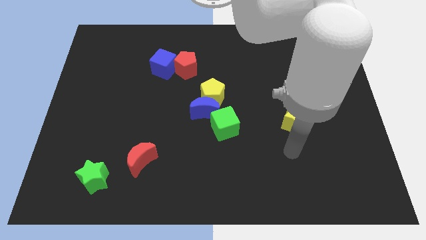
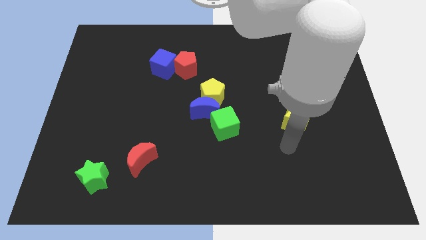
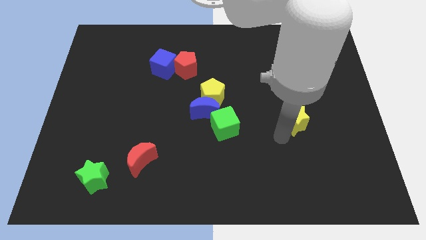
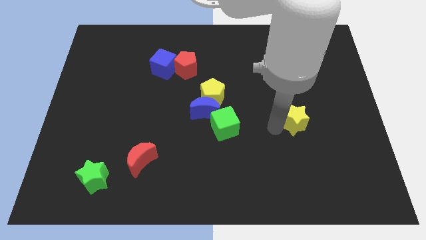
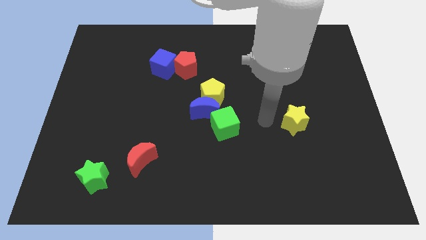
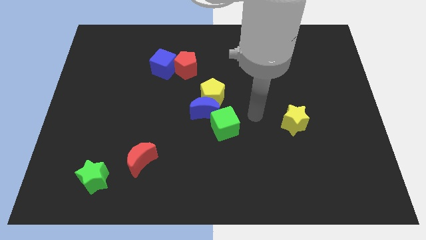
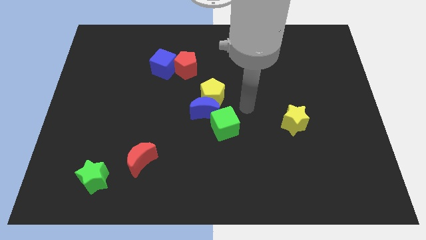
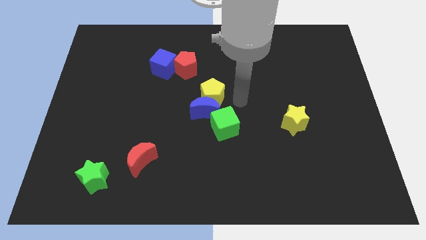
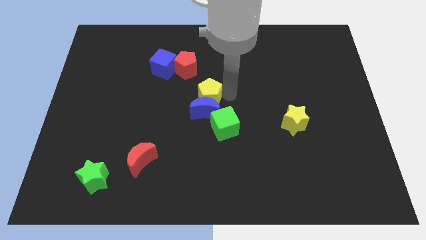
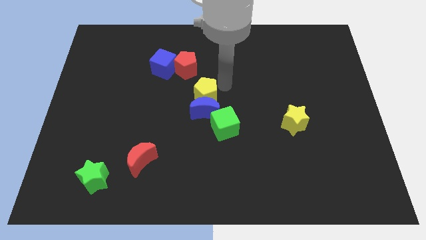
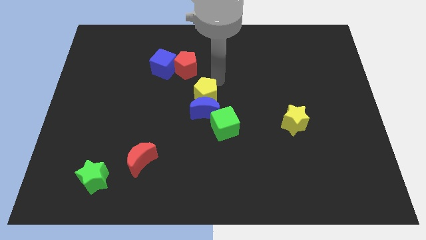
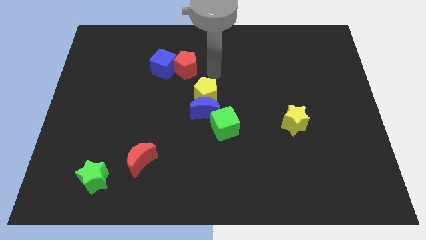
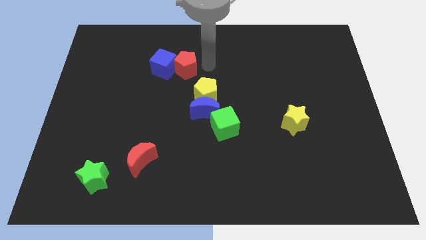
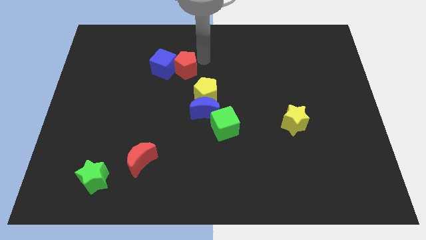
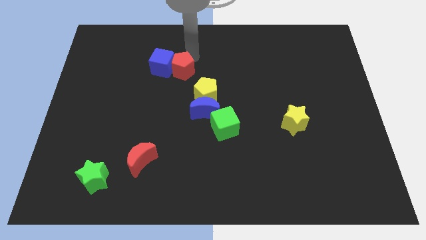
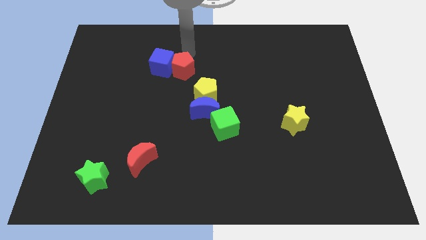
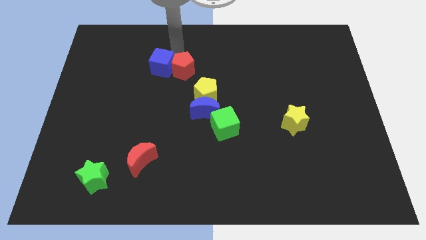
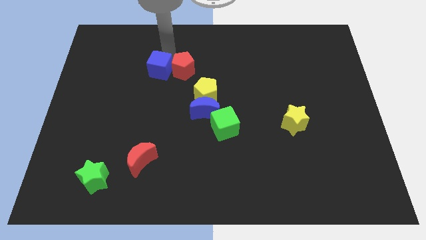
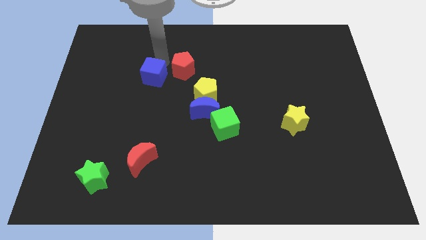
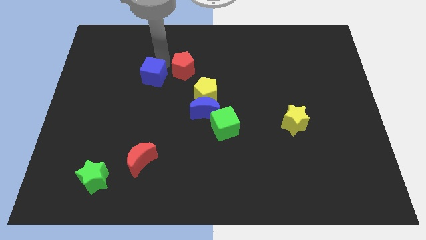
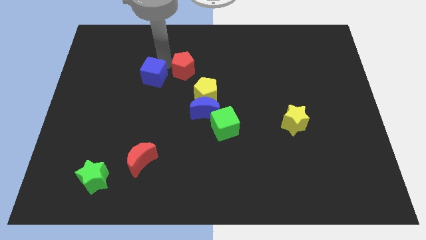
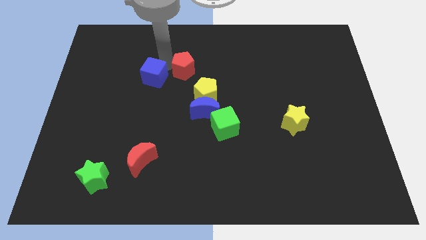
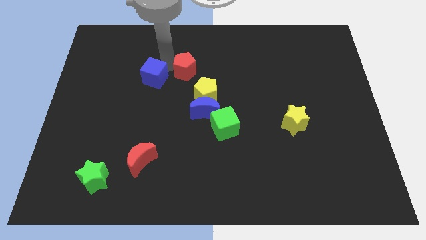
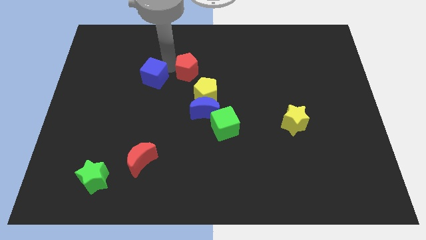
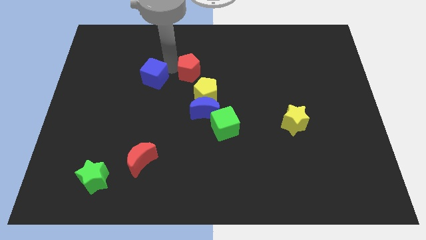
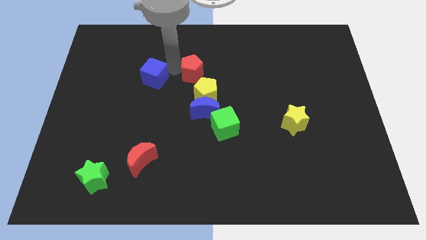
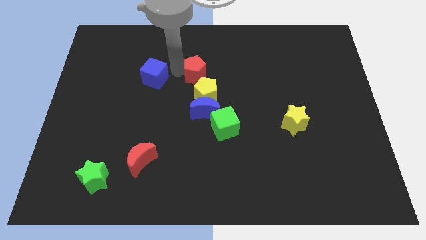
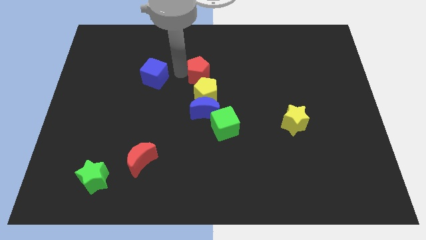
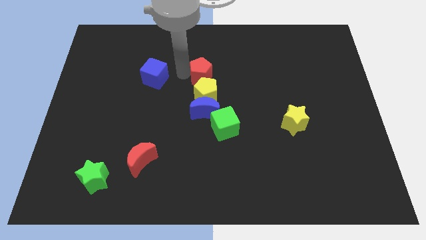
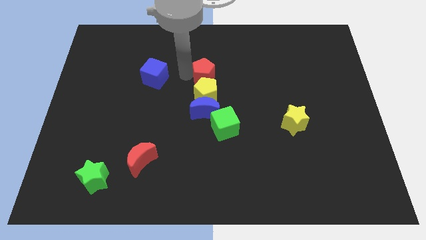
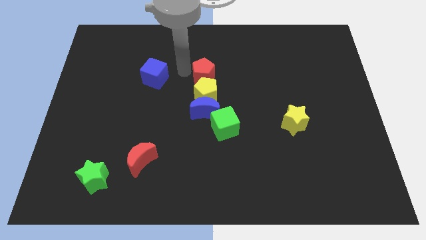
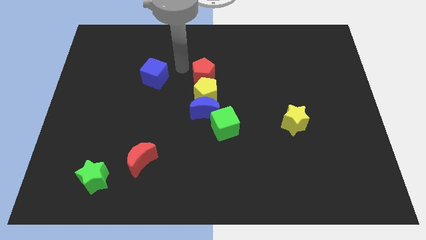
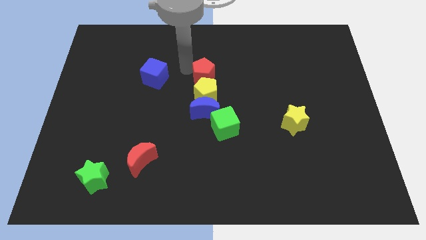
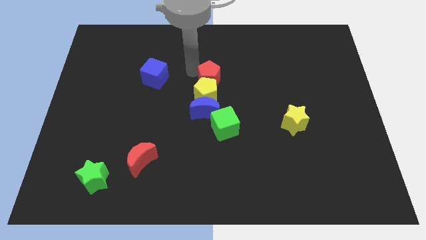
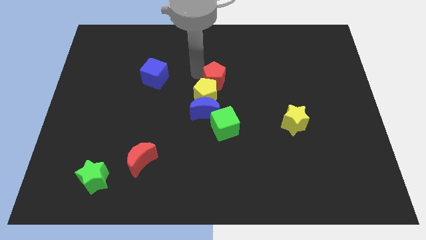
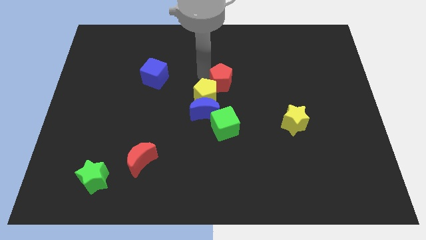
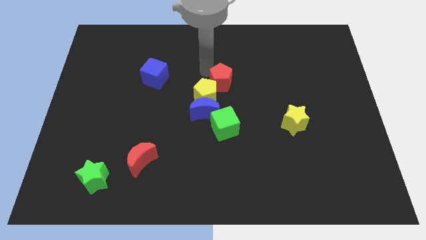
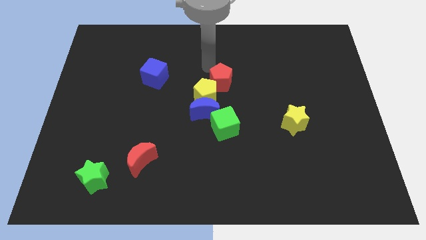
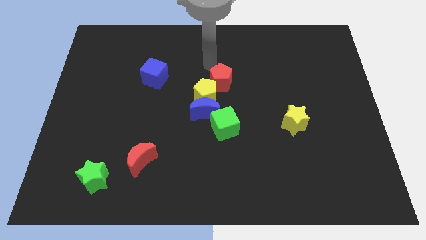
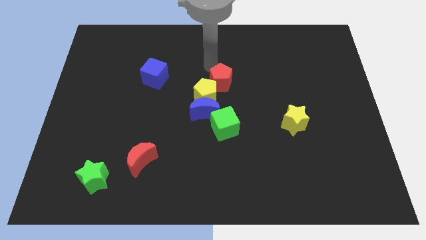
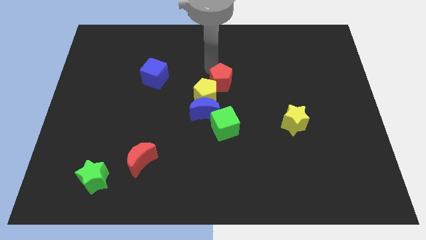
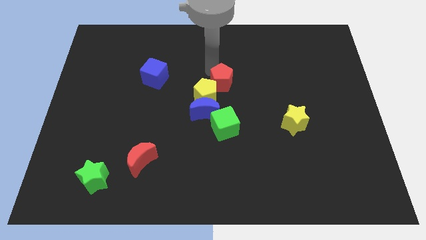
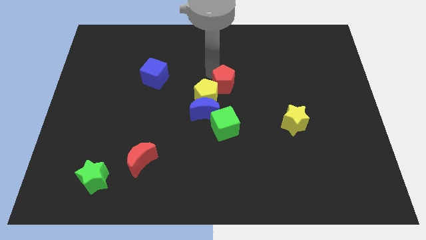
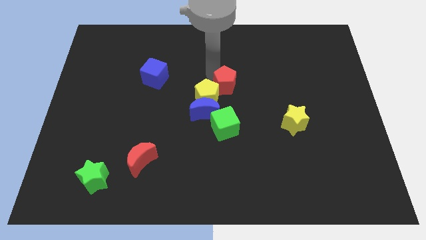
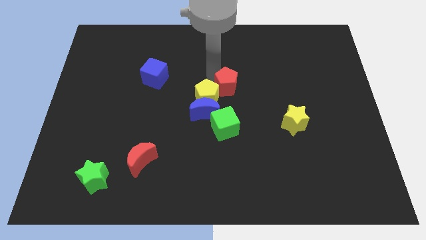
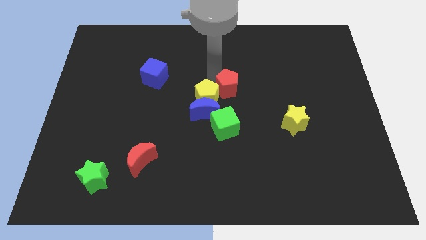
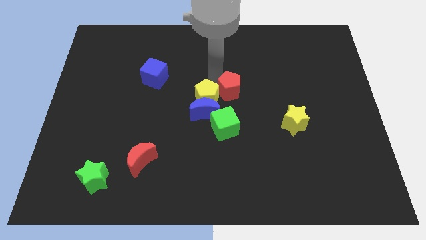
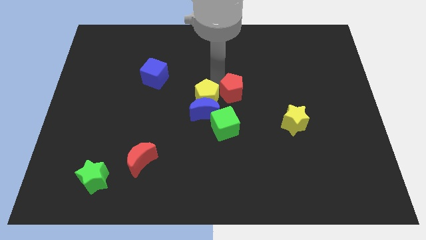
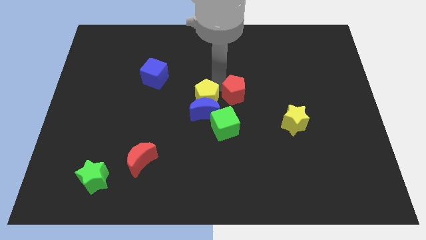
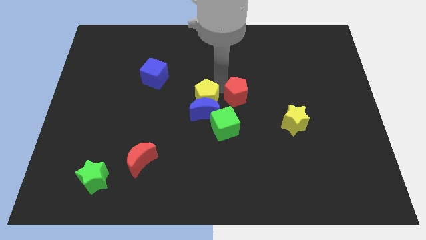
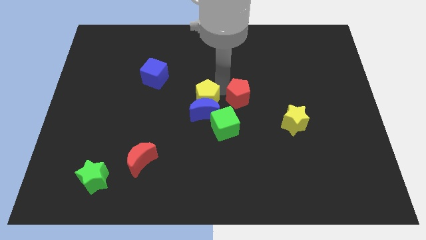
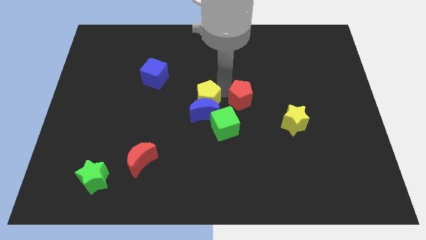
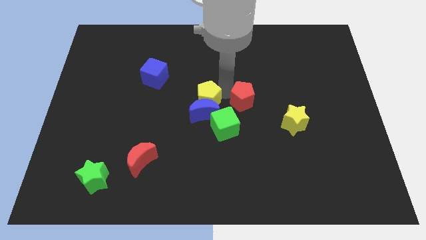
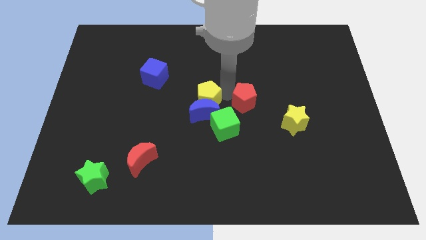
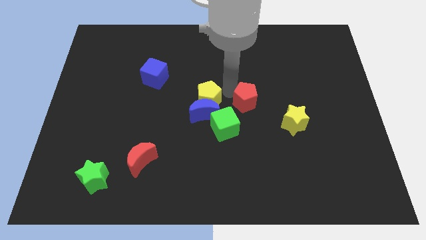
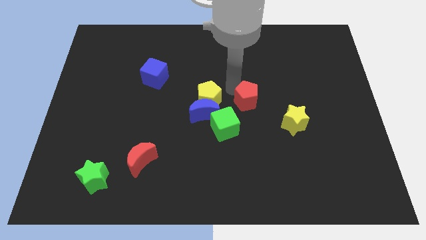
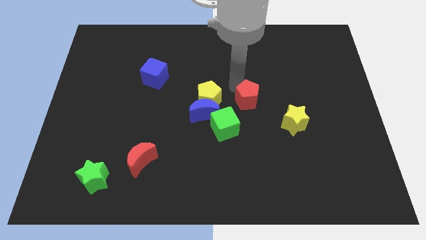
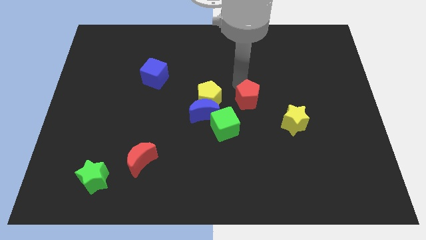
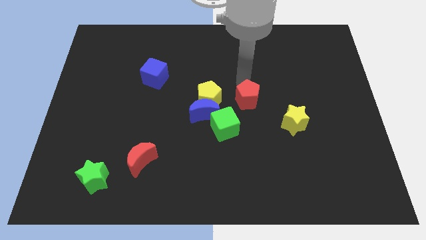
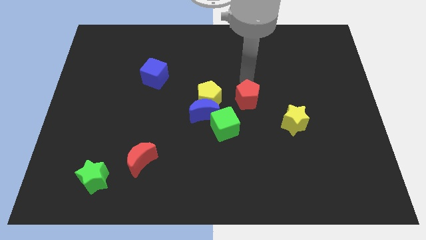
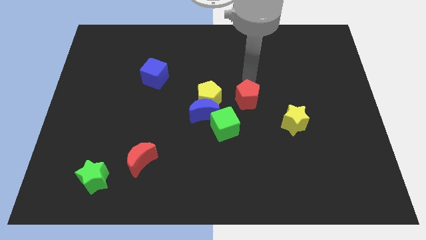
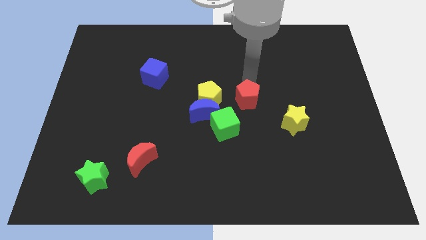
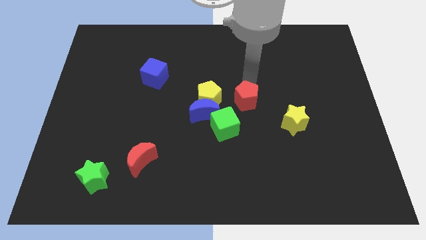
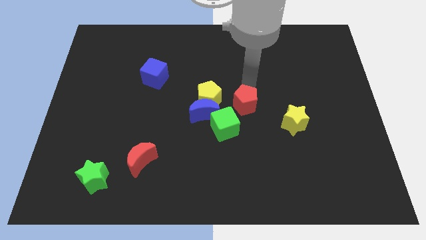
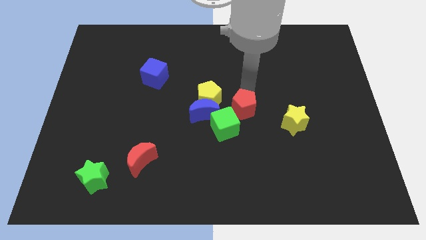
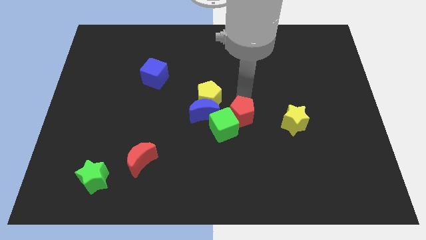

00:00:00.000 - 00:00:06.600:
move the red pentagon downwards and right diagonally

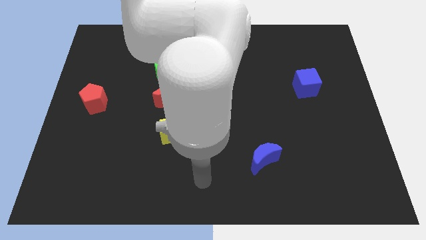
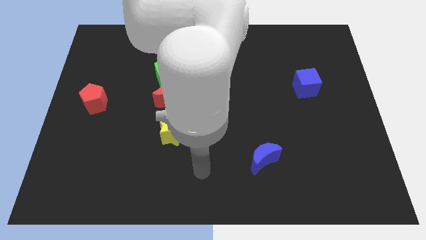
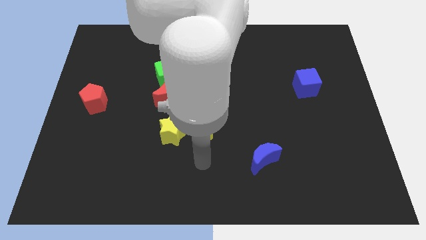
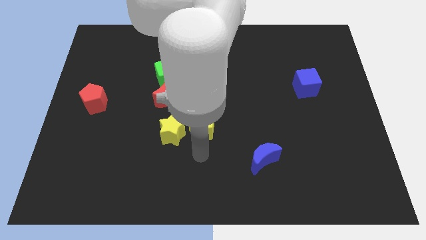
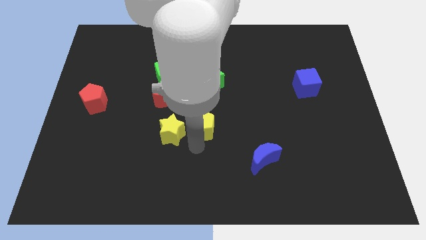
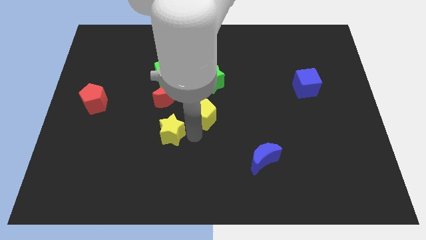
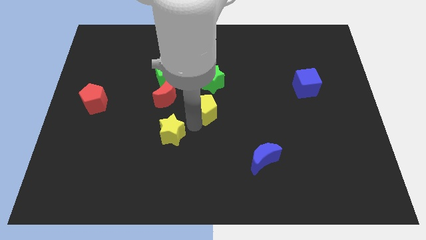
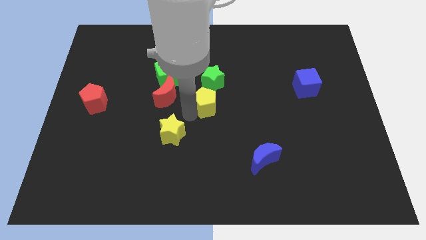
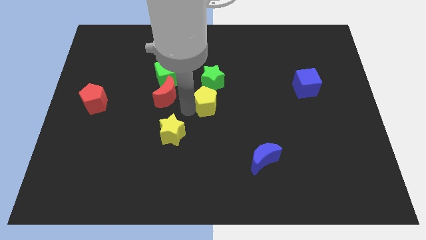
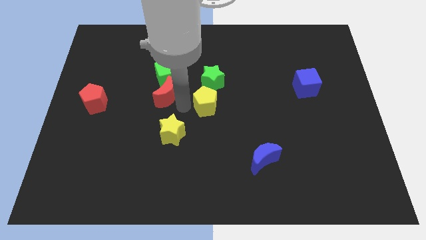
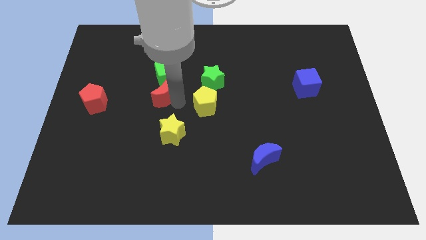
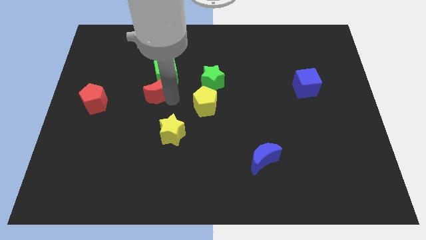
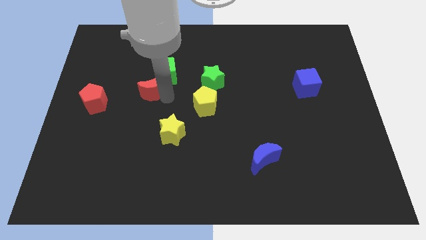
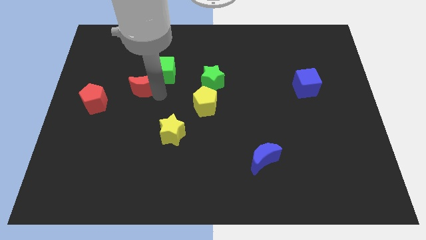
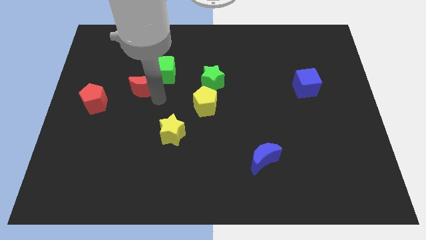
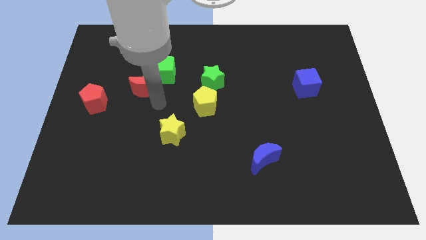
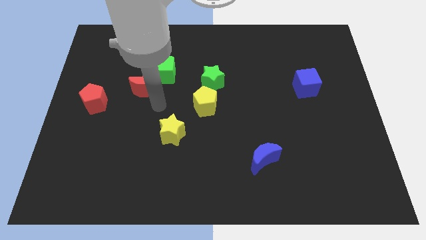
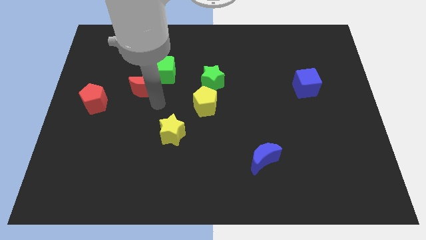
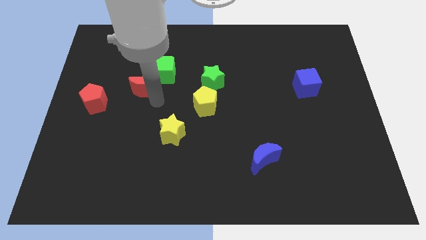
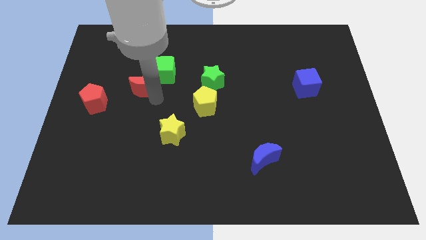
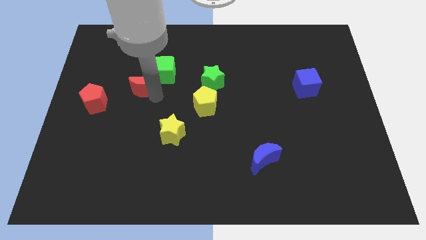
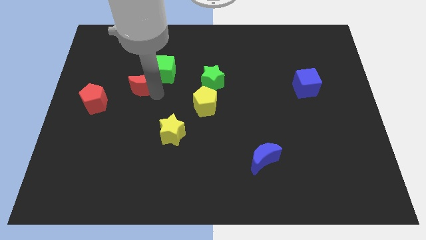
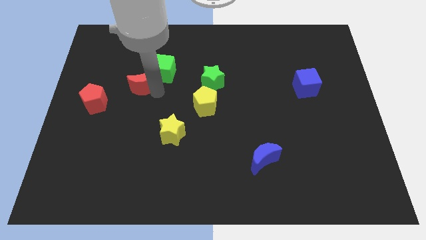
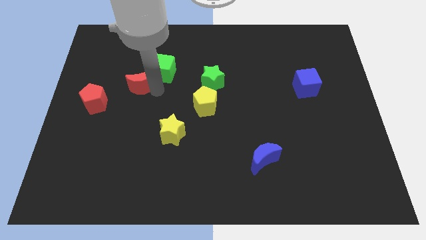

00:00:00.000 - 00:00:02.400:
slightly slide the red moon up and left diagonally
